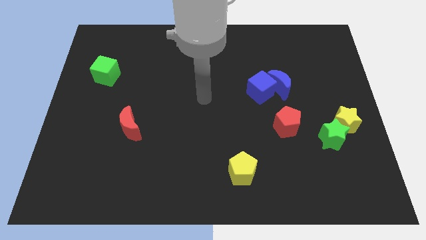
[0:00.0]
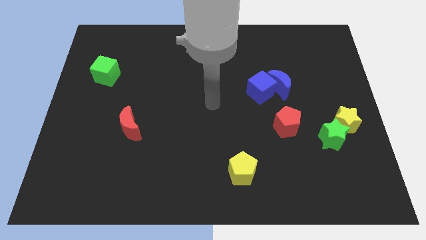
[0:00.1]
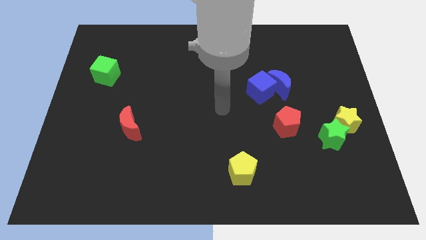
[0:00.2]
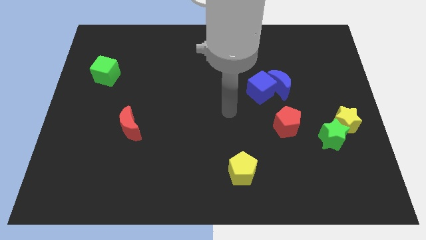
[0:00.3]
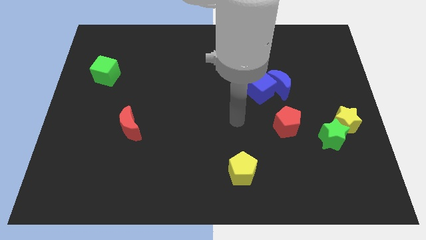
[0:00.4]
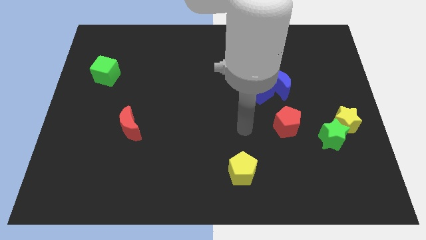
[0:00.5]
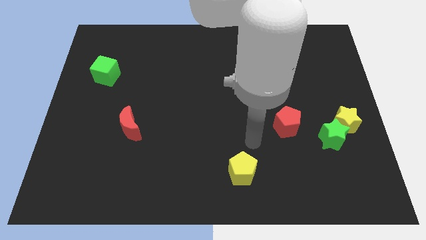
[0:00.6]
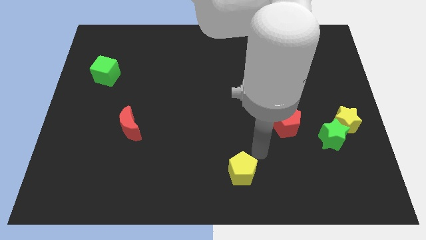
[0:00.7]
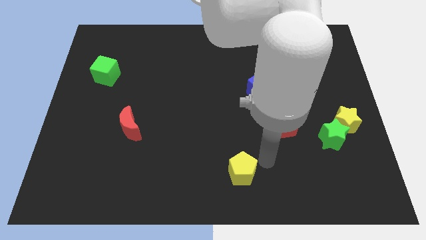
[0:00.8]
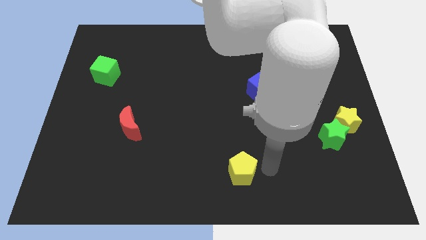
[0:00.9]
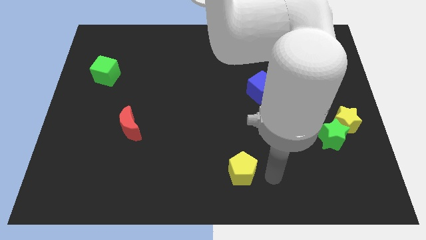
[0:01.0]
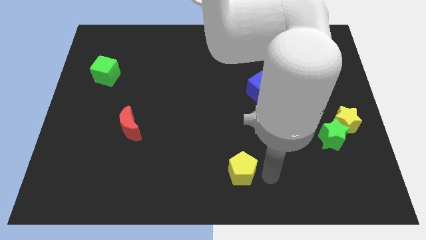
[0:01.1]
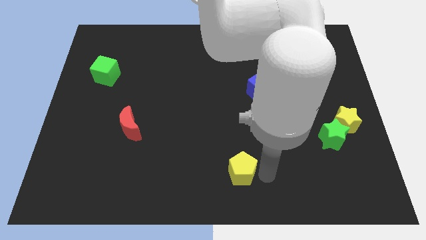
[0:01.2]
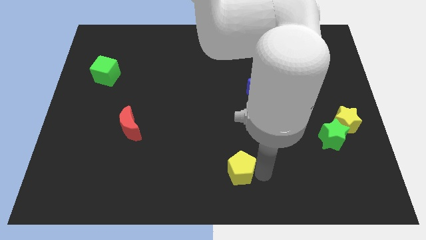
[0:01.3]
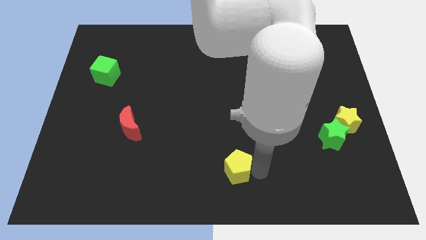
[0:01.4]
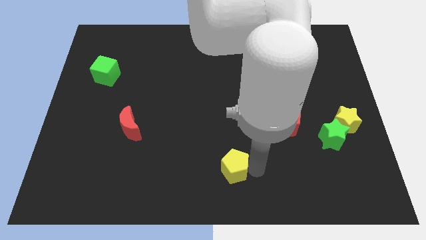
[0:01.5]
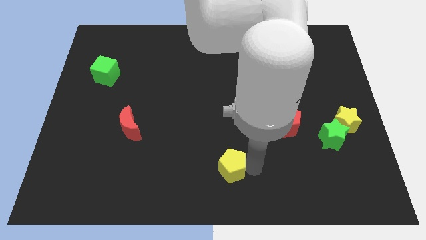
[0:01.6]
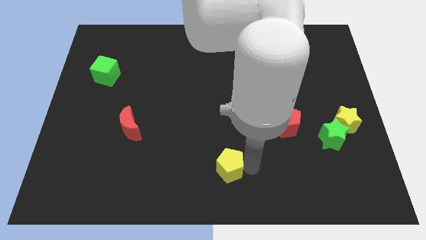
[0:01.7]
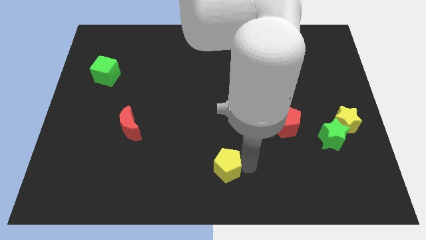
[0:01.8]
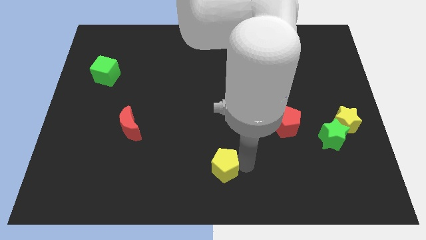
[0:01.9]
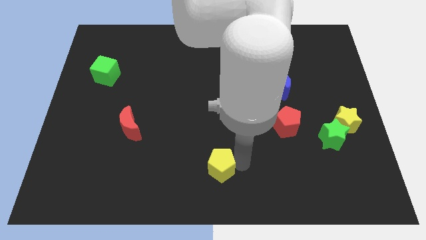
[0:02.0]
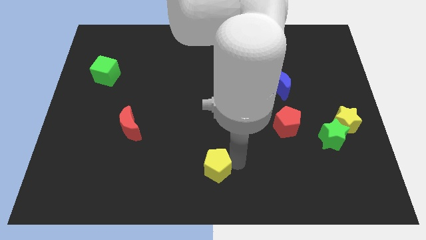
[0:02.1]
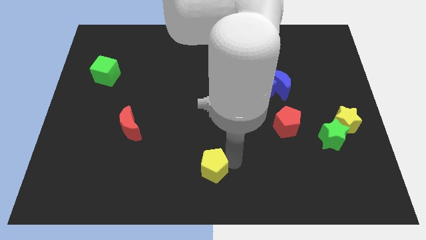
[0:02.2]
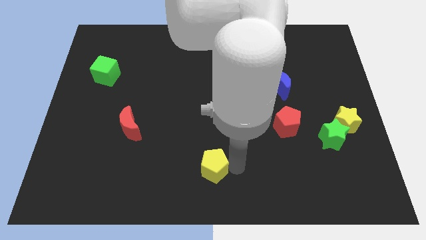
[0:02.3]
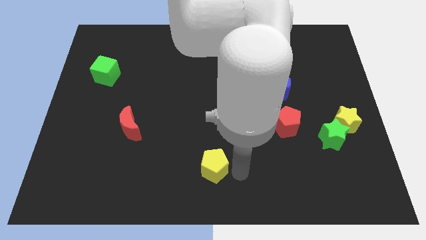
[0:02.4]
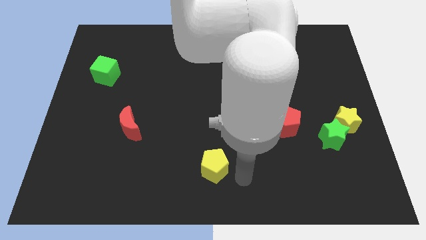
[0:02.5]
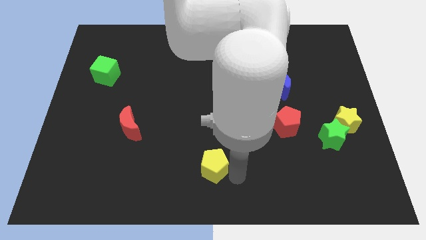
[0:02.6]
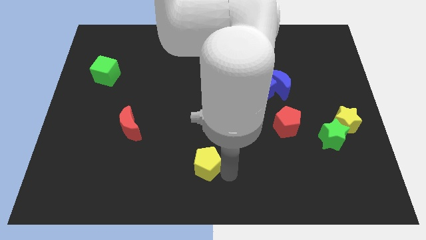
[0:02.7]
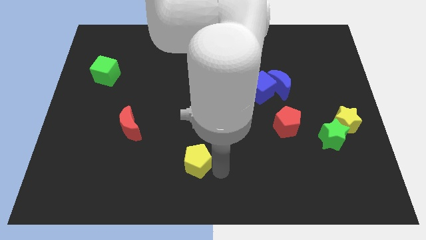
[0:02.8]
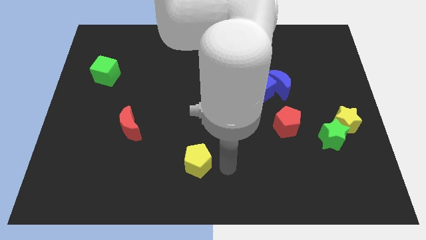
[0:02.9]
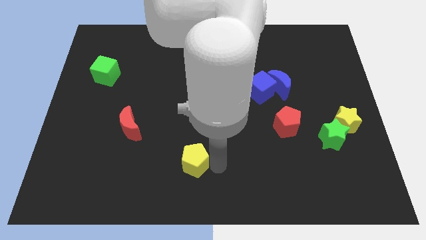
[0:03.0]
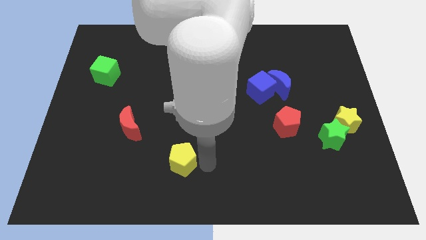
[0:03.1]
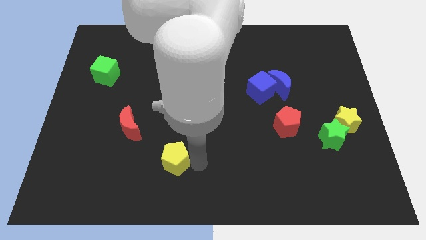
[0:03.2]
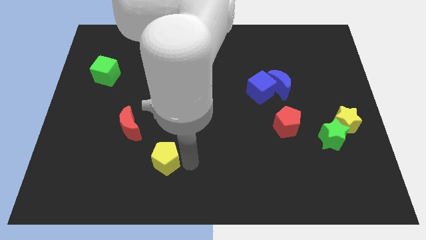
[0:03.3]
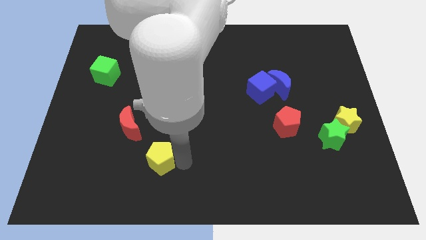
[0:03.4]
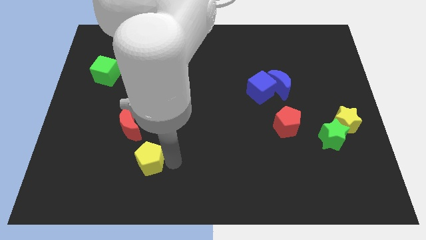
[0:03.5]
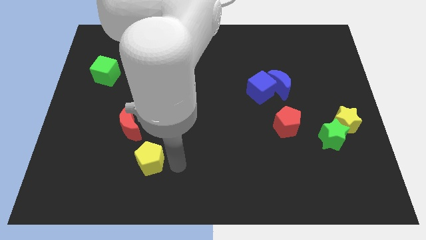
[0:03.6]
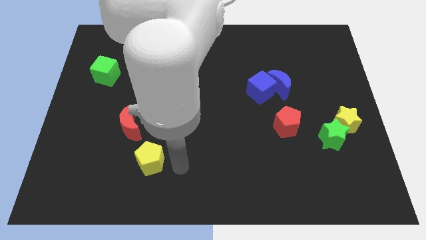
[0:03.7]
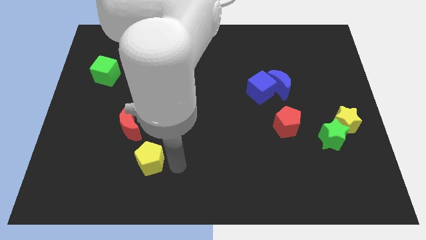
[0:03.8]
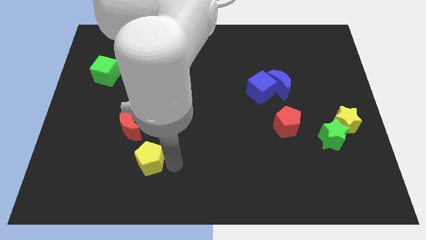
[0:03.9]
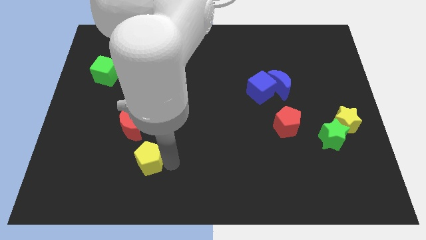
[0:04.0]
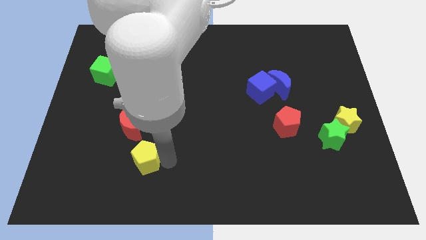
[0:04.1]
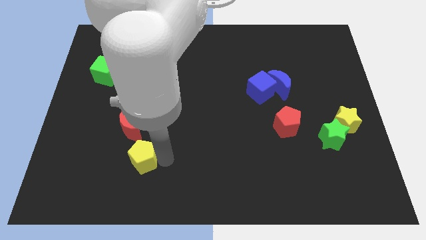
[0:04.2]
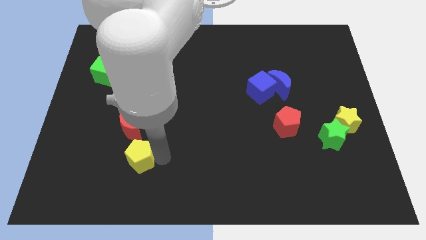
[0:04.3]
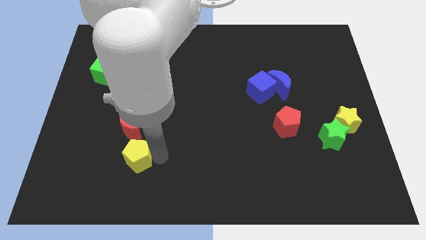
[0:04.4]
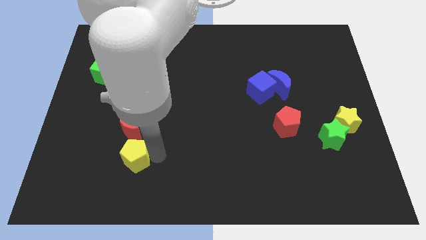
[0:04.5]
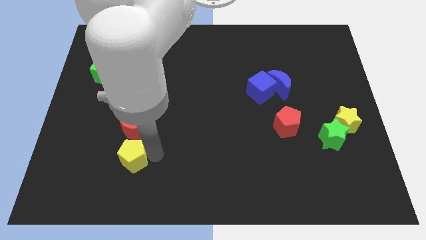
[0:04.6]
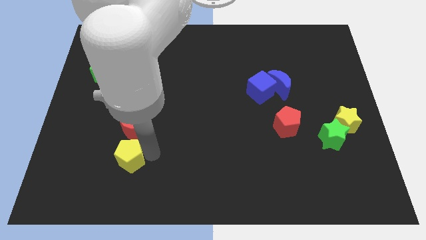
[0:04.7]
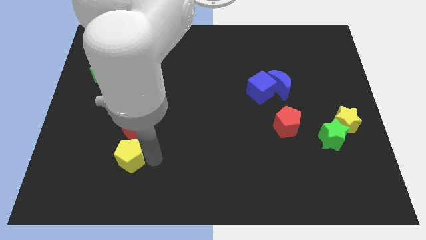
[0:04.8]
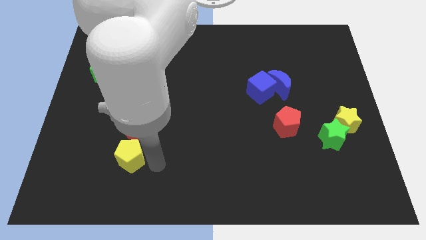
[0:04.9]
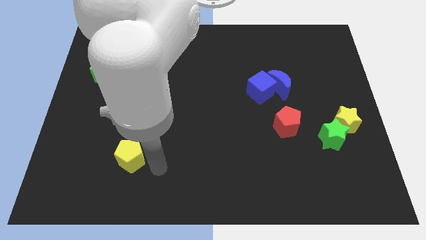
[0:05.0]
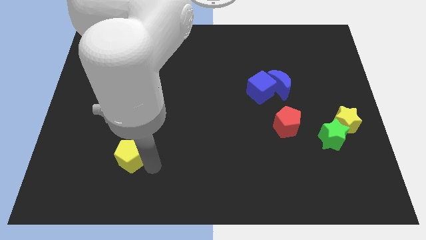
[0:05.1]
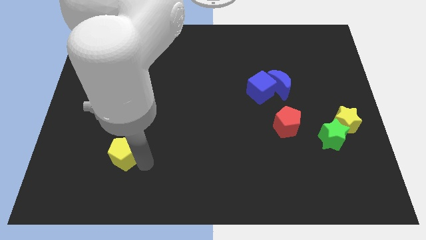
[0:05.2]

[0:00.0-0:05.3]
slide the yellow pentagon to the bottom left of the red moon

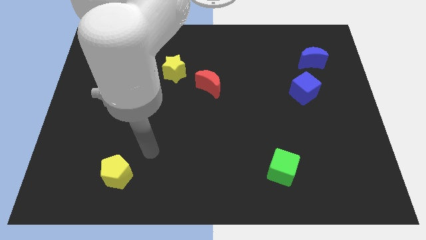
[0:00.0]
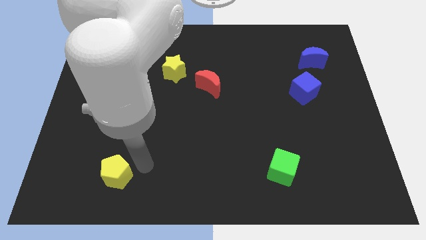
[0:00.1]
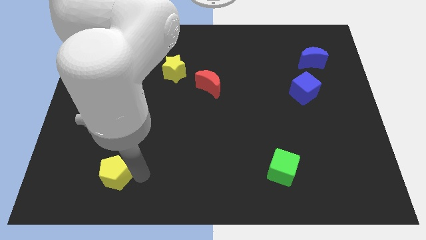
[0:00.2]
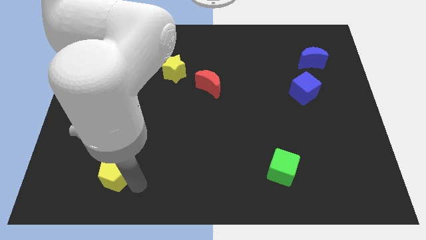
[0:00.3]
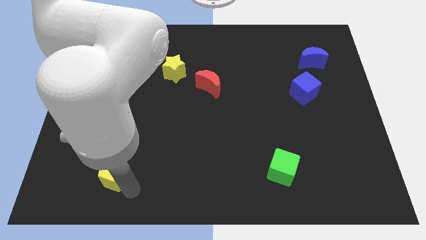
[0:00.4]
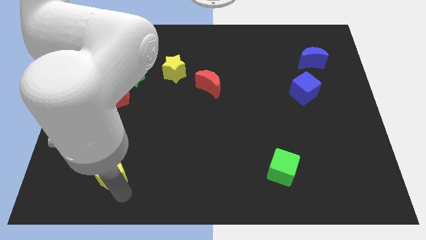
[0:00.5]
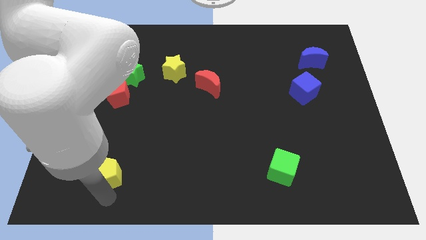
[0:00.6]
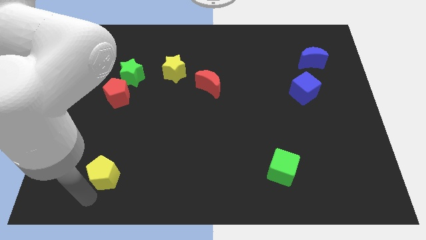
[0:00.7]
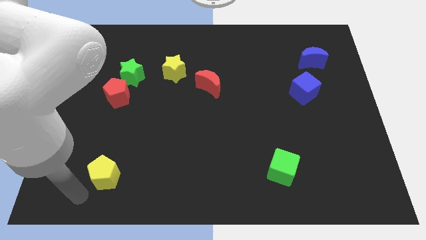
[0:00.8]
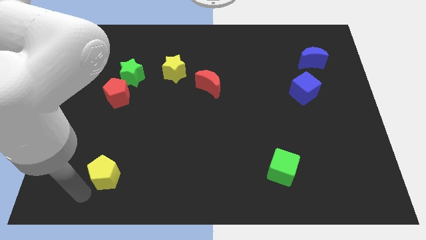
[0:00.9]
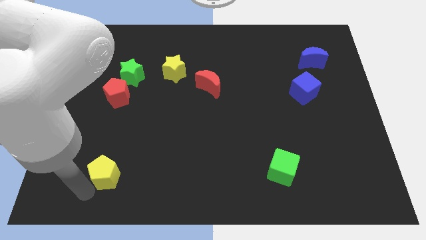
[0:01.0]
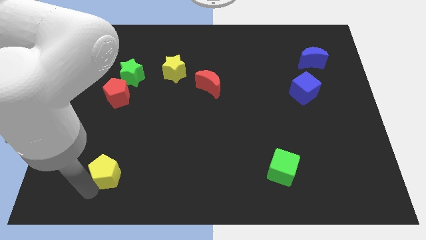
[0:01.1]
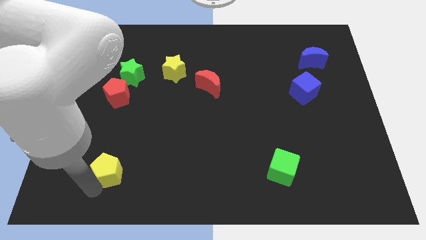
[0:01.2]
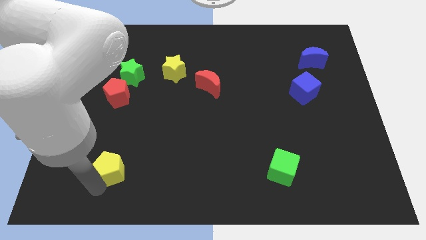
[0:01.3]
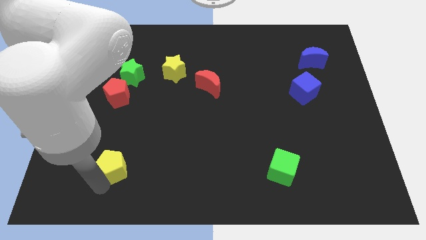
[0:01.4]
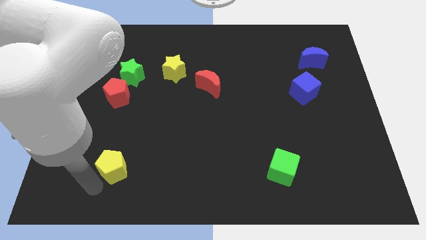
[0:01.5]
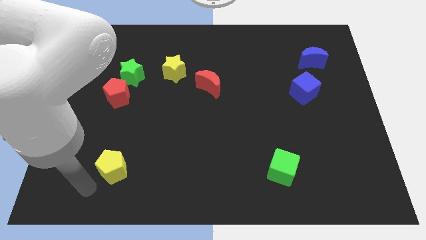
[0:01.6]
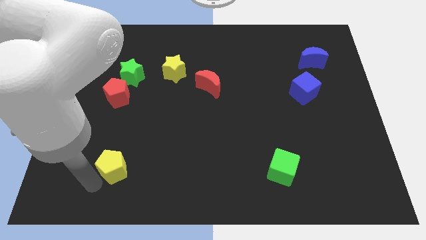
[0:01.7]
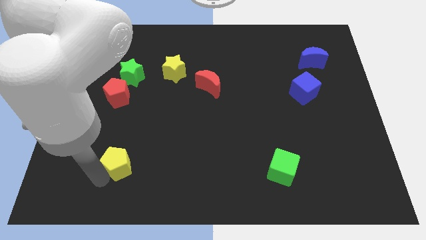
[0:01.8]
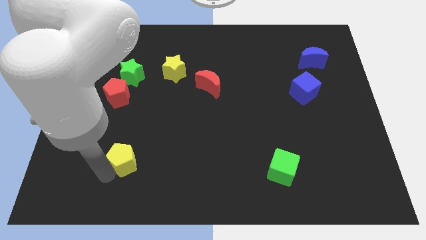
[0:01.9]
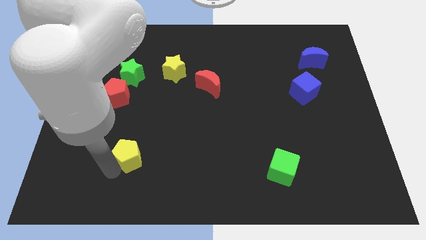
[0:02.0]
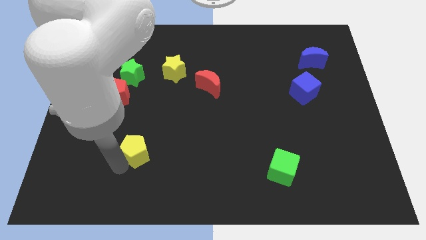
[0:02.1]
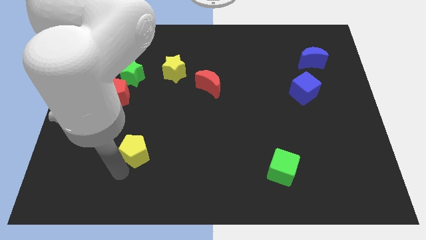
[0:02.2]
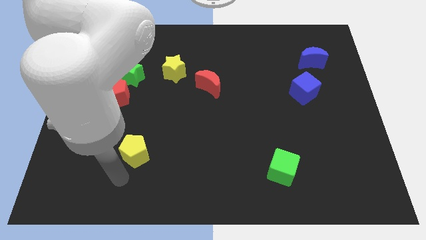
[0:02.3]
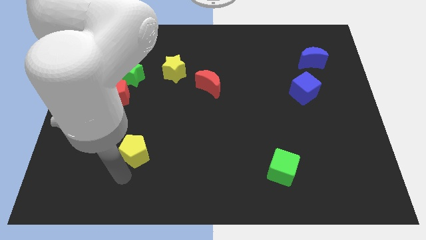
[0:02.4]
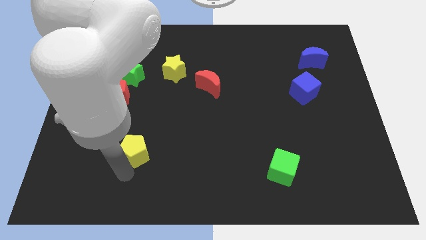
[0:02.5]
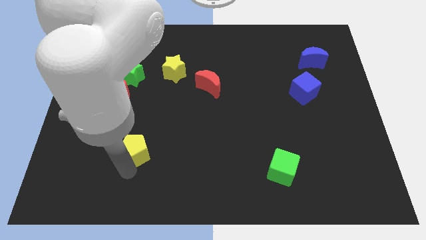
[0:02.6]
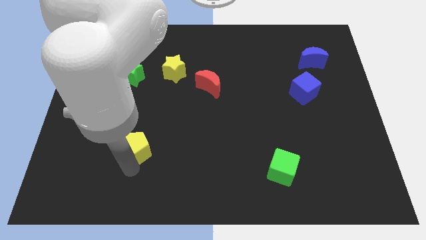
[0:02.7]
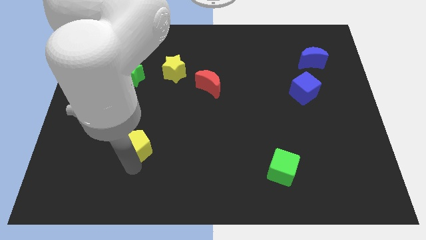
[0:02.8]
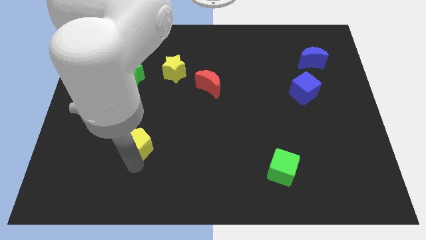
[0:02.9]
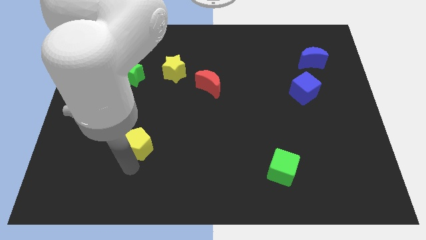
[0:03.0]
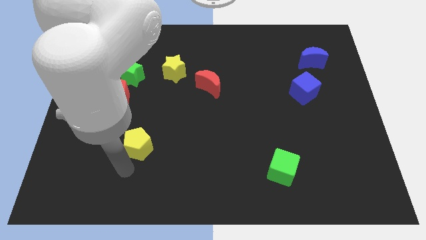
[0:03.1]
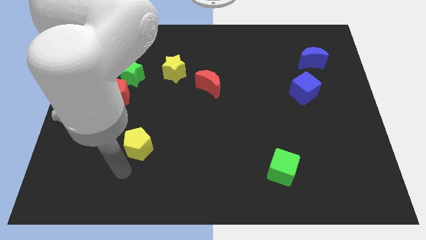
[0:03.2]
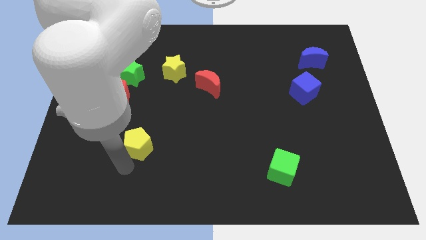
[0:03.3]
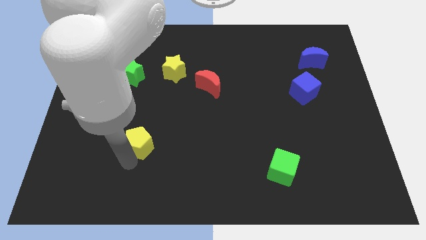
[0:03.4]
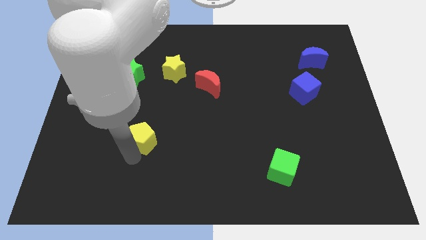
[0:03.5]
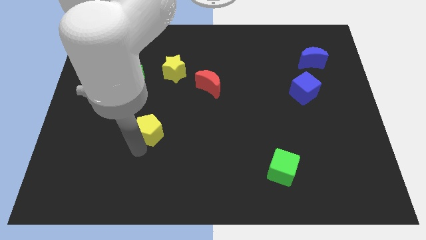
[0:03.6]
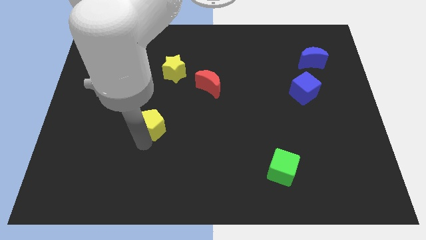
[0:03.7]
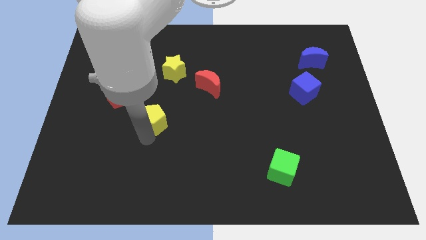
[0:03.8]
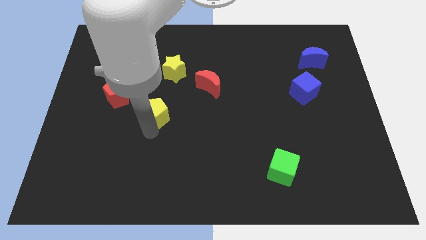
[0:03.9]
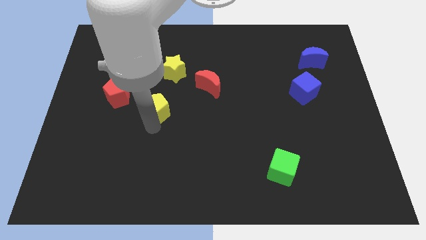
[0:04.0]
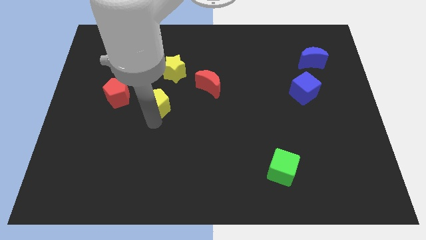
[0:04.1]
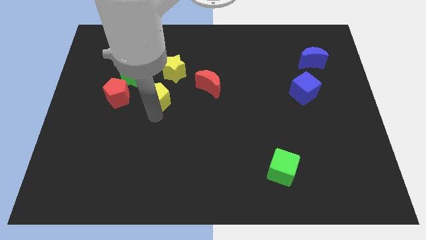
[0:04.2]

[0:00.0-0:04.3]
put the yellow pentagon left of the red moon
